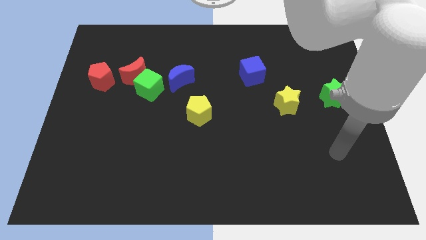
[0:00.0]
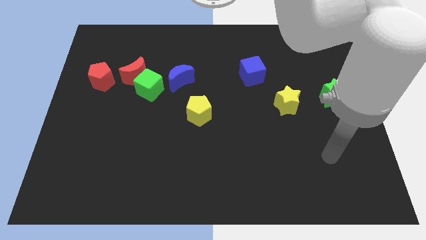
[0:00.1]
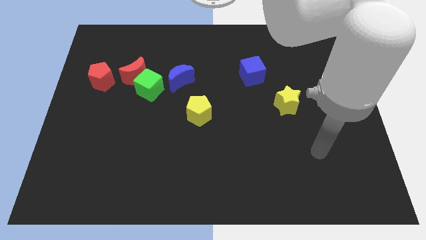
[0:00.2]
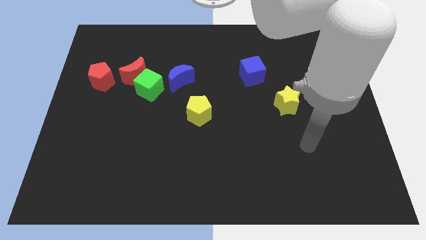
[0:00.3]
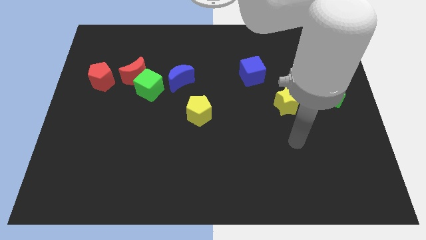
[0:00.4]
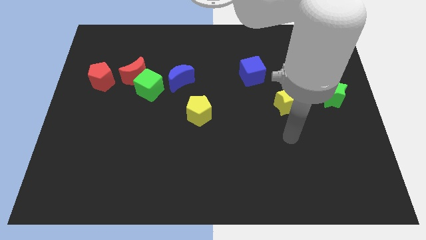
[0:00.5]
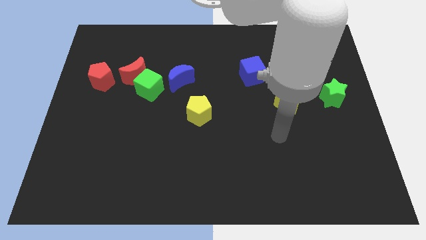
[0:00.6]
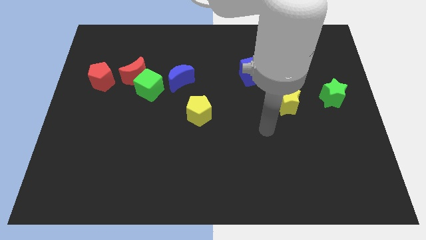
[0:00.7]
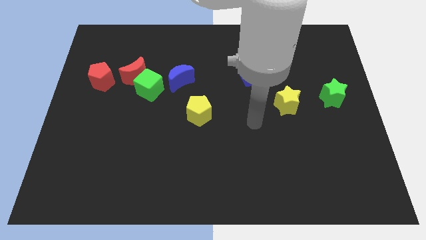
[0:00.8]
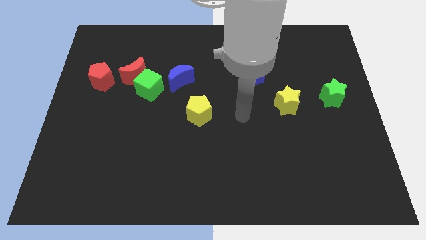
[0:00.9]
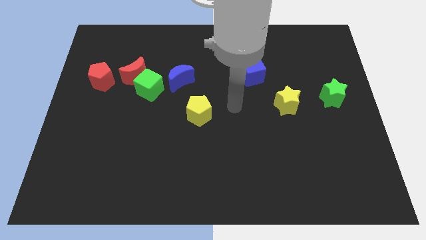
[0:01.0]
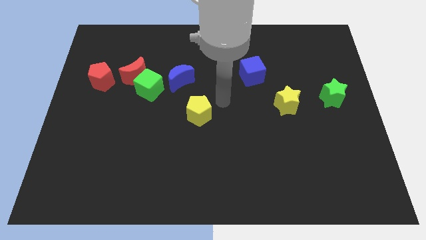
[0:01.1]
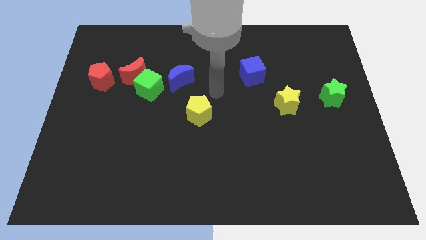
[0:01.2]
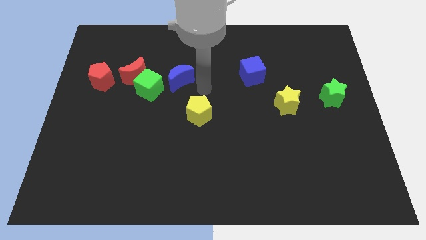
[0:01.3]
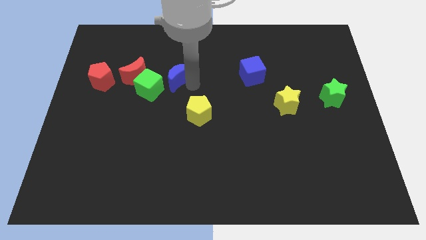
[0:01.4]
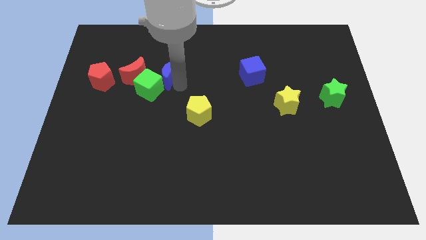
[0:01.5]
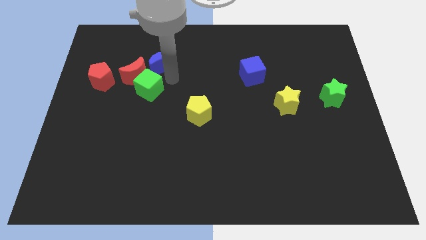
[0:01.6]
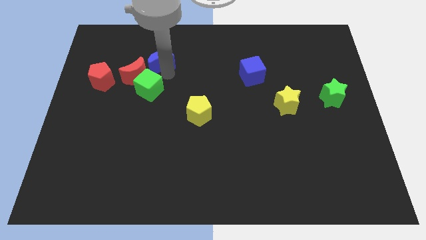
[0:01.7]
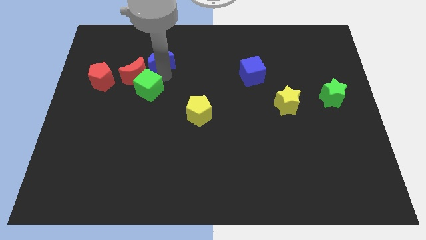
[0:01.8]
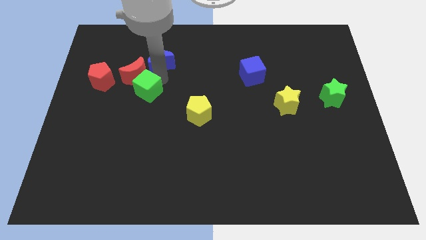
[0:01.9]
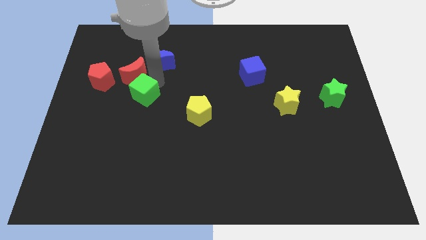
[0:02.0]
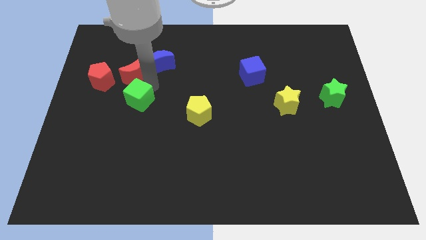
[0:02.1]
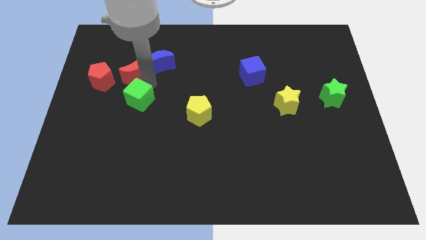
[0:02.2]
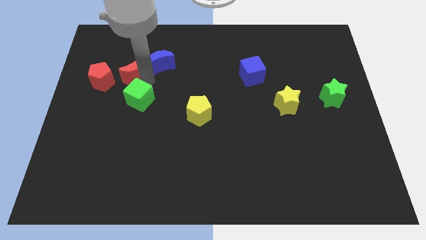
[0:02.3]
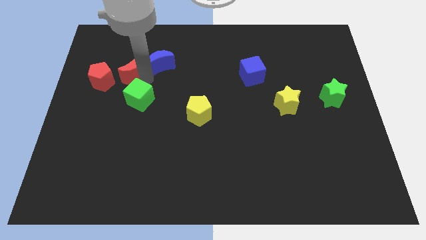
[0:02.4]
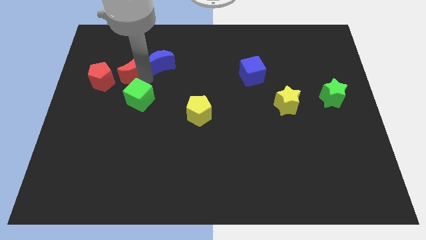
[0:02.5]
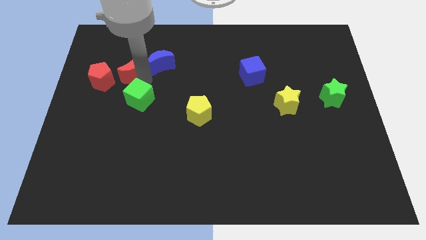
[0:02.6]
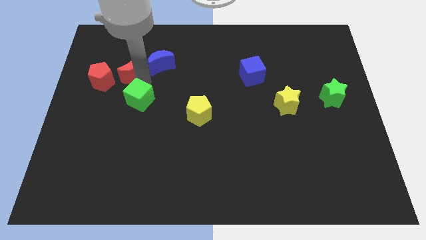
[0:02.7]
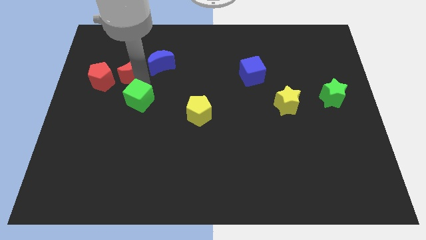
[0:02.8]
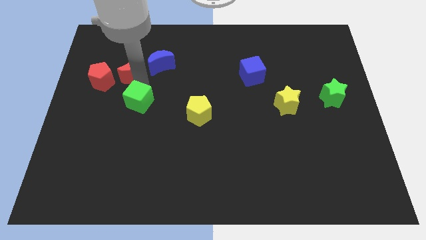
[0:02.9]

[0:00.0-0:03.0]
move the green cube away from the red moon and blue moon

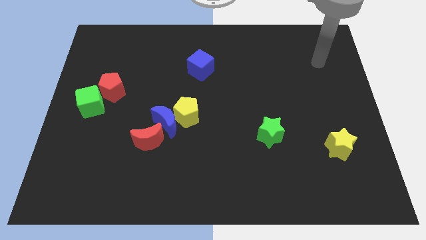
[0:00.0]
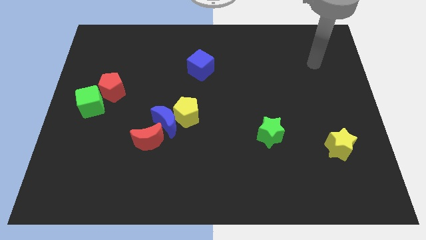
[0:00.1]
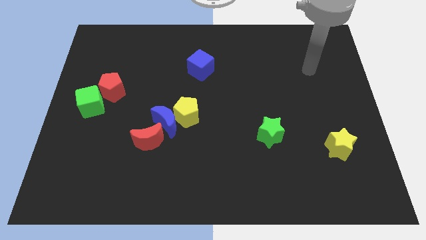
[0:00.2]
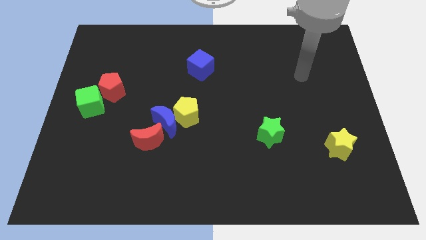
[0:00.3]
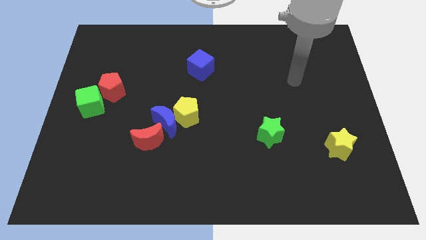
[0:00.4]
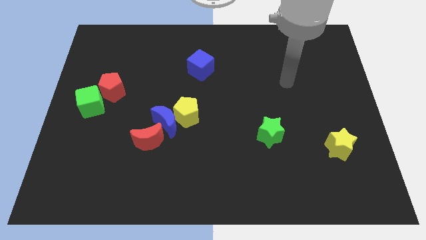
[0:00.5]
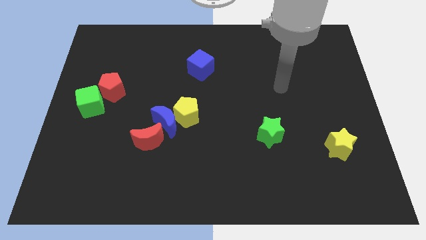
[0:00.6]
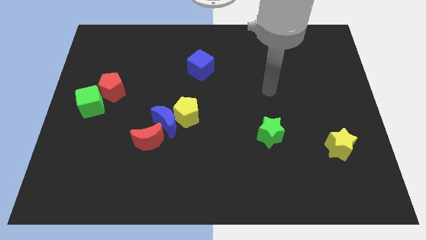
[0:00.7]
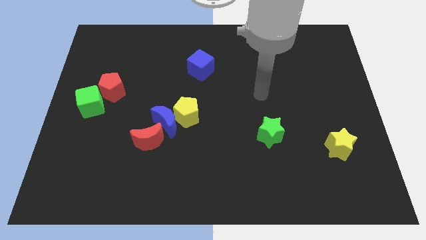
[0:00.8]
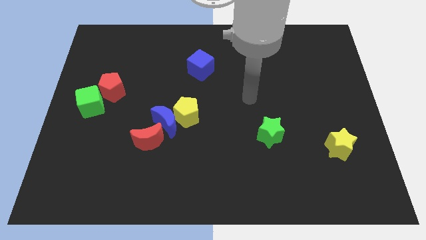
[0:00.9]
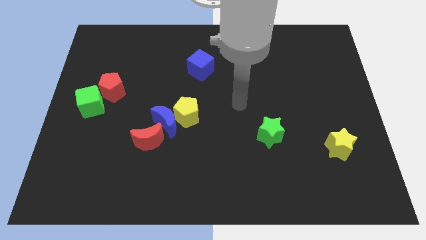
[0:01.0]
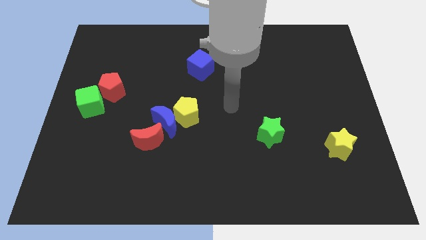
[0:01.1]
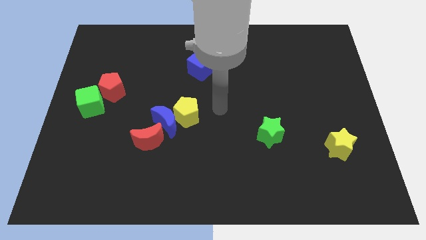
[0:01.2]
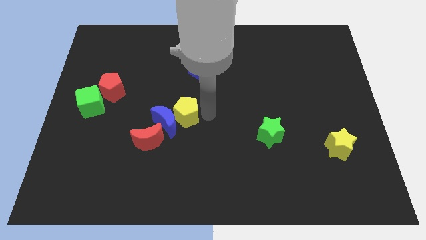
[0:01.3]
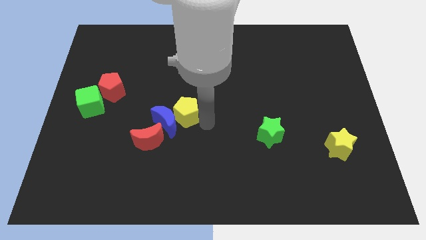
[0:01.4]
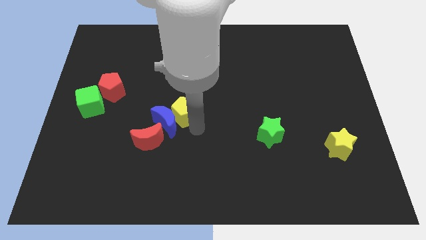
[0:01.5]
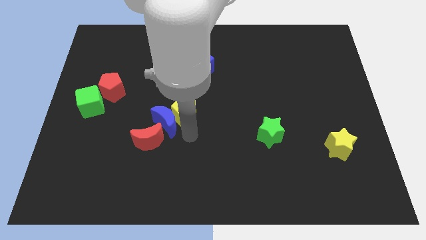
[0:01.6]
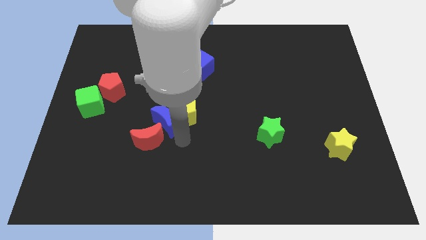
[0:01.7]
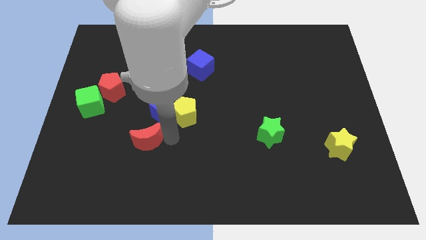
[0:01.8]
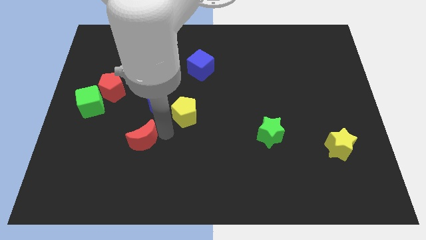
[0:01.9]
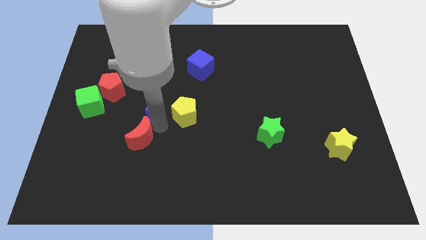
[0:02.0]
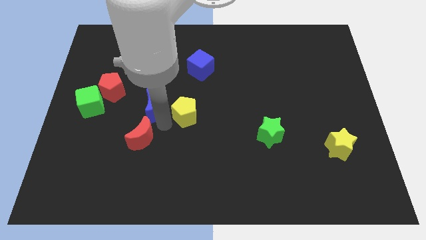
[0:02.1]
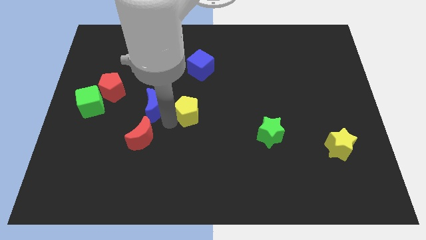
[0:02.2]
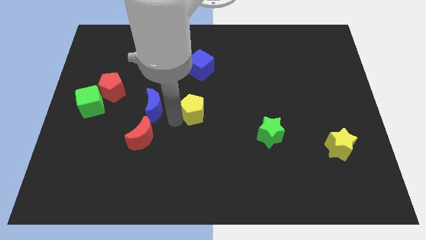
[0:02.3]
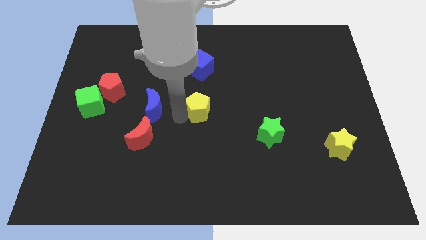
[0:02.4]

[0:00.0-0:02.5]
move the yellow pentagon away from the blue moon

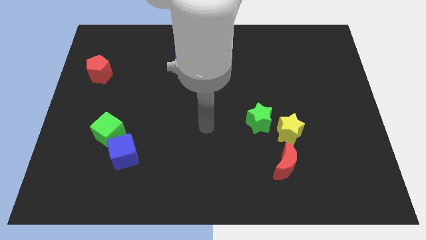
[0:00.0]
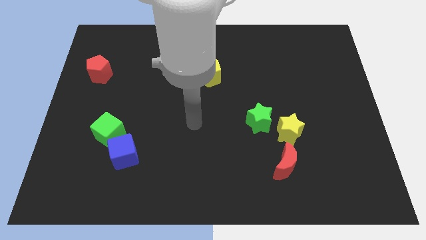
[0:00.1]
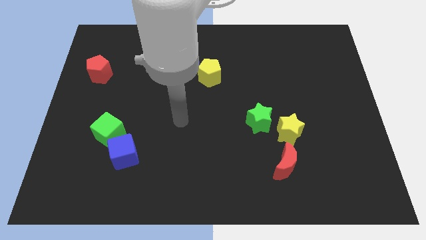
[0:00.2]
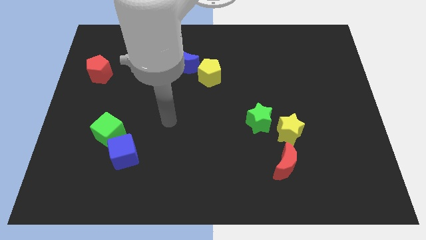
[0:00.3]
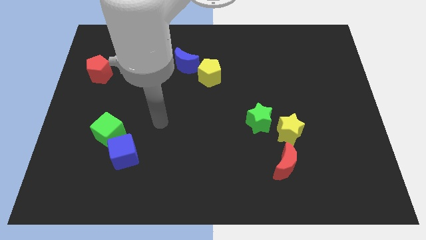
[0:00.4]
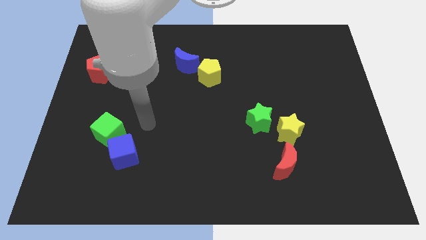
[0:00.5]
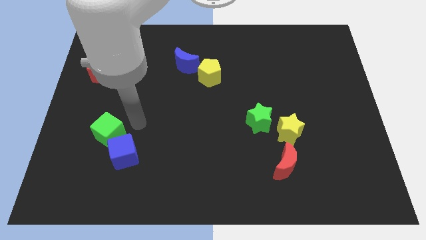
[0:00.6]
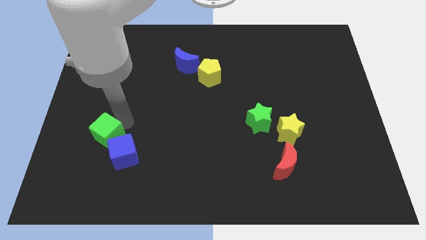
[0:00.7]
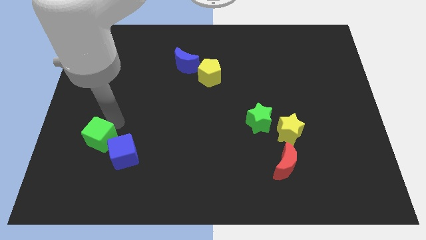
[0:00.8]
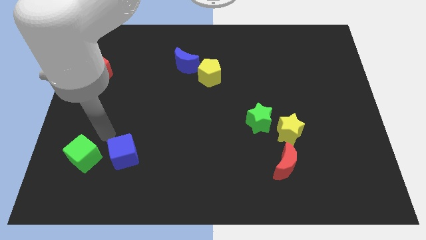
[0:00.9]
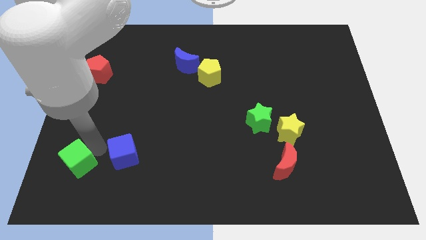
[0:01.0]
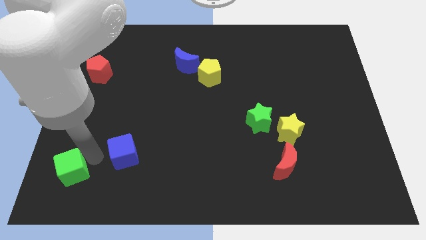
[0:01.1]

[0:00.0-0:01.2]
separate the blue cube from the green cube

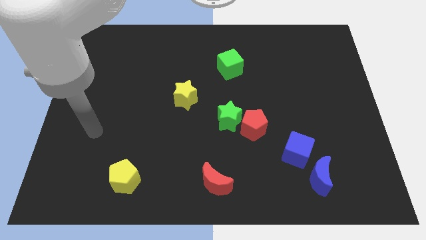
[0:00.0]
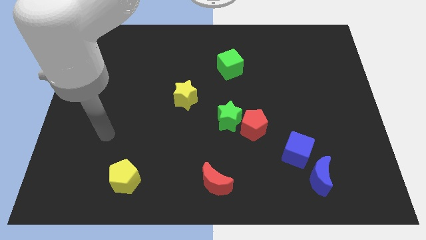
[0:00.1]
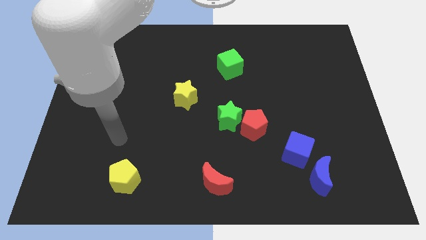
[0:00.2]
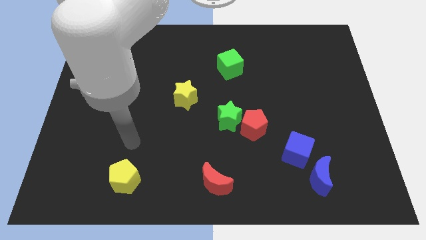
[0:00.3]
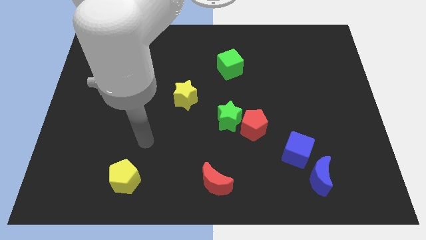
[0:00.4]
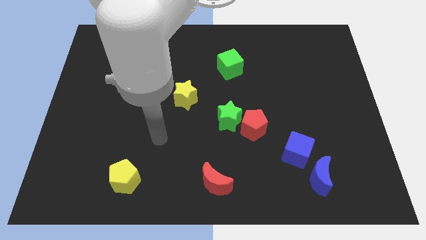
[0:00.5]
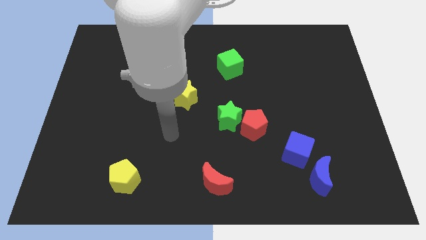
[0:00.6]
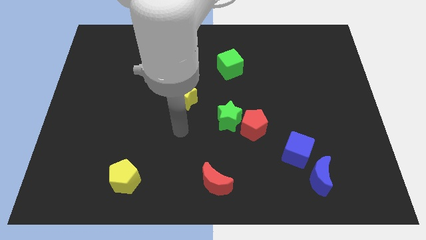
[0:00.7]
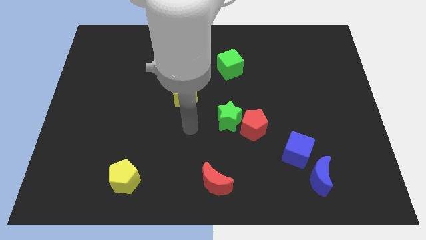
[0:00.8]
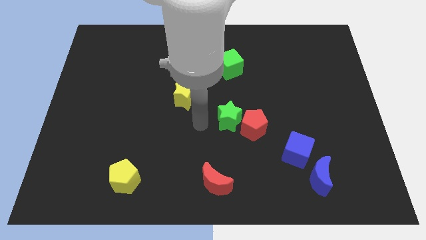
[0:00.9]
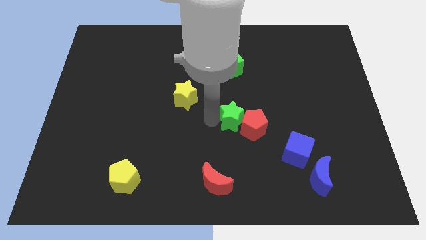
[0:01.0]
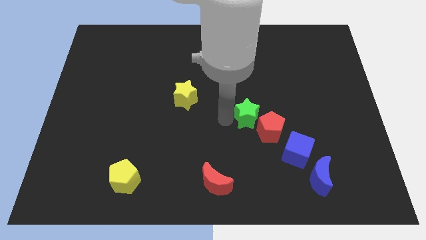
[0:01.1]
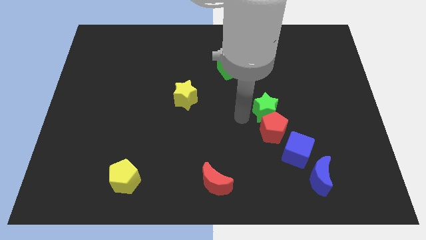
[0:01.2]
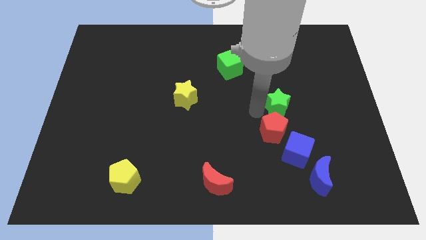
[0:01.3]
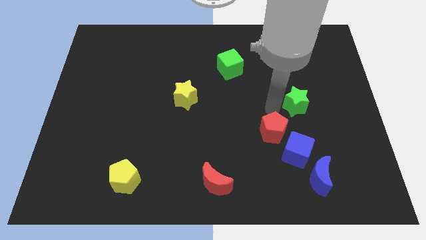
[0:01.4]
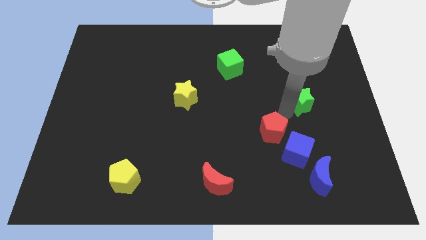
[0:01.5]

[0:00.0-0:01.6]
pull the red pentagon apart from the green star

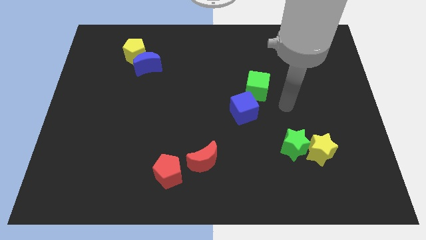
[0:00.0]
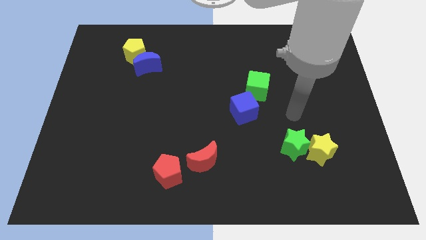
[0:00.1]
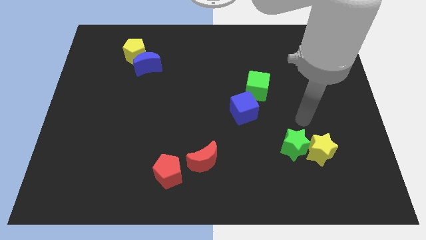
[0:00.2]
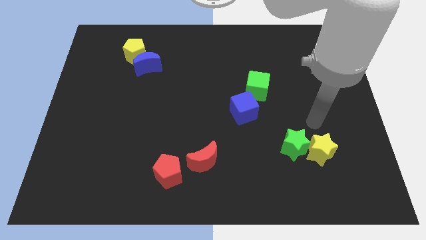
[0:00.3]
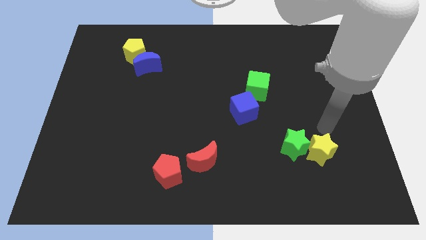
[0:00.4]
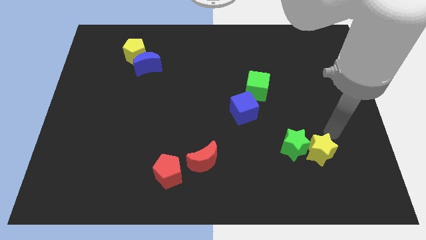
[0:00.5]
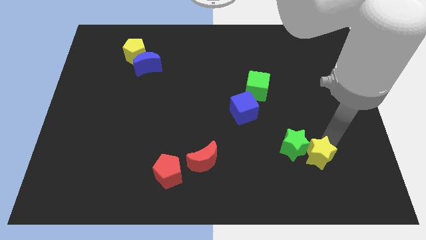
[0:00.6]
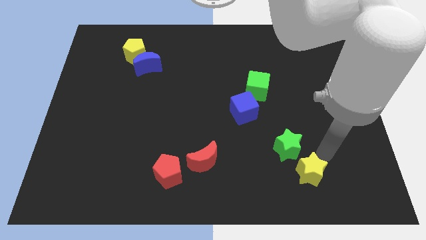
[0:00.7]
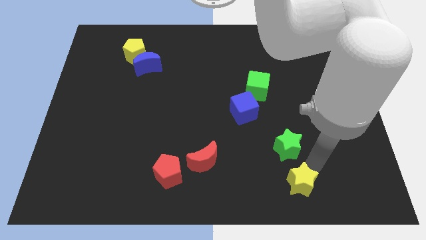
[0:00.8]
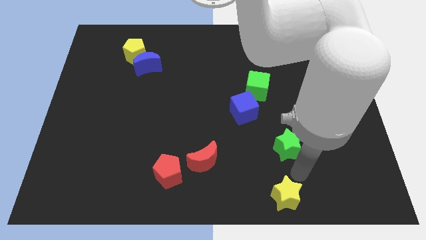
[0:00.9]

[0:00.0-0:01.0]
separate the green star from the yellow star
